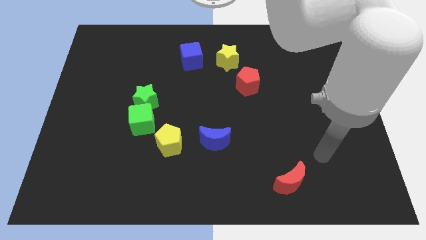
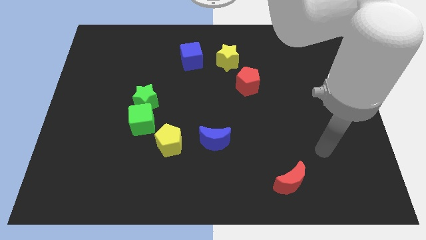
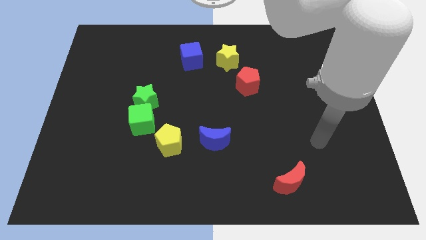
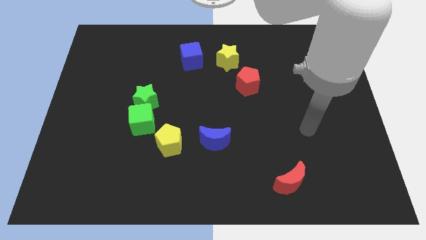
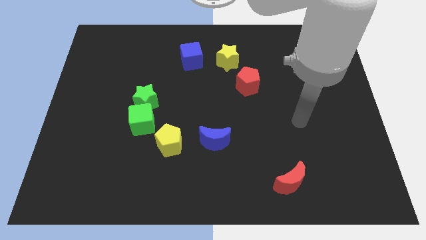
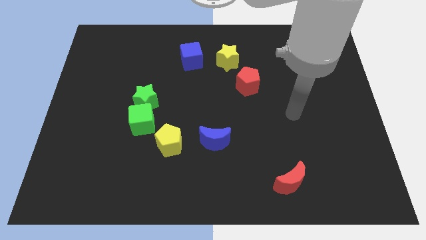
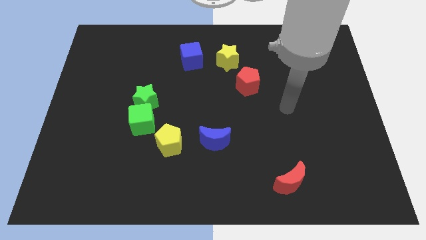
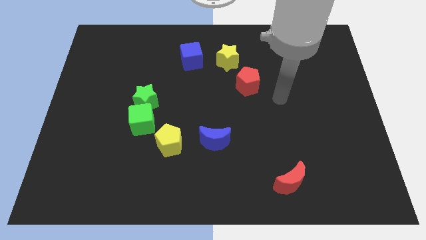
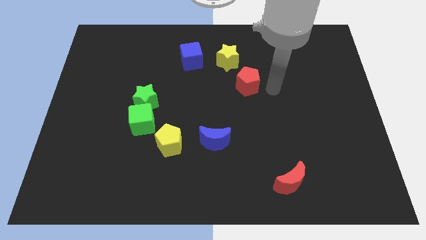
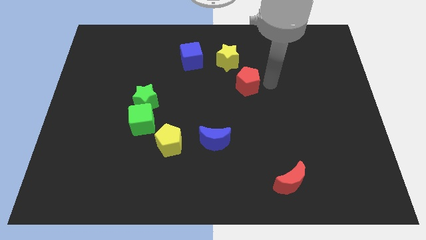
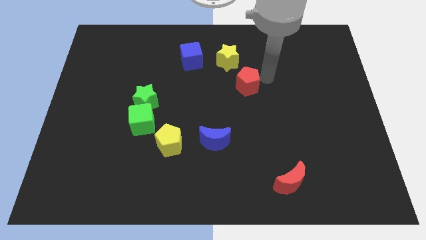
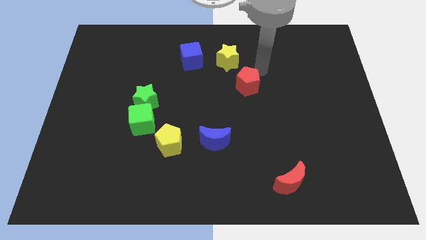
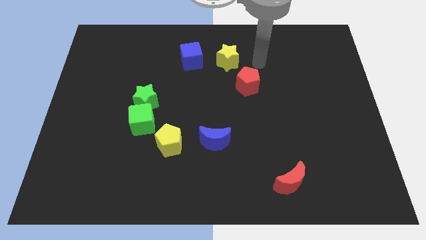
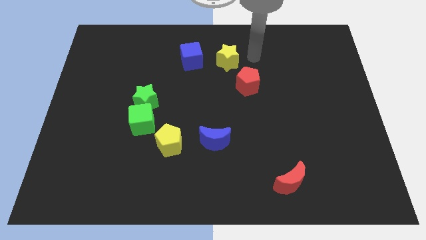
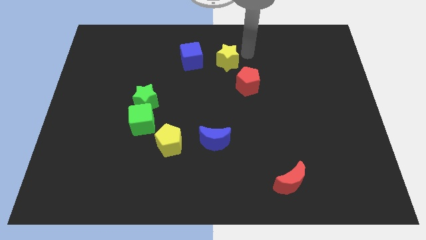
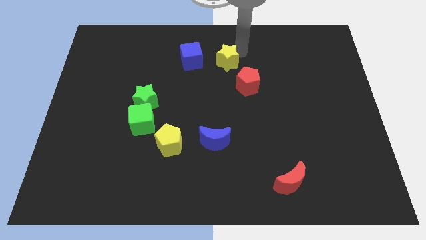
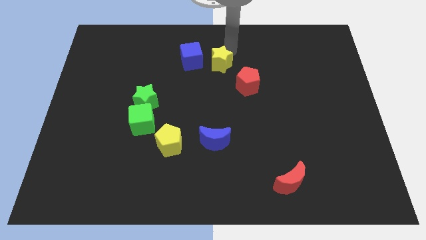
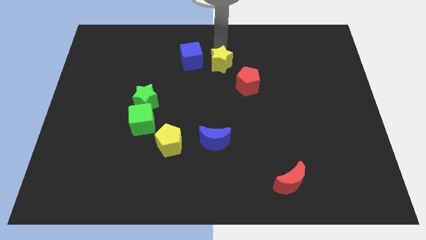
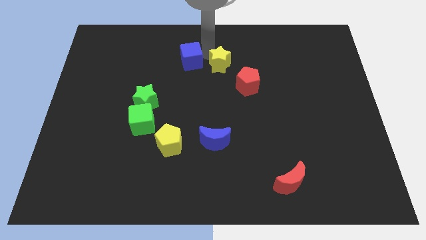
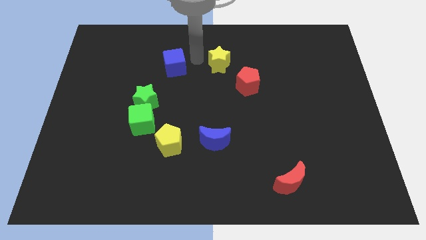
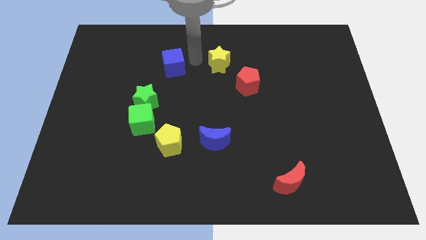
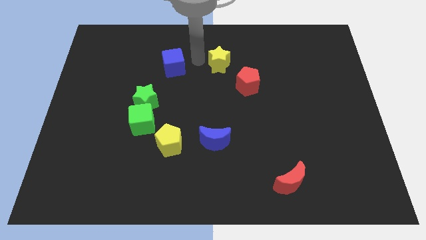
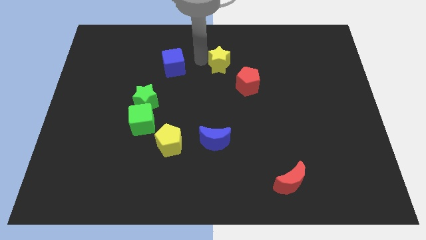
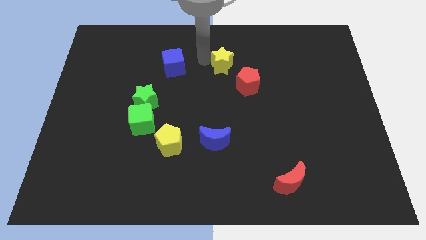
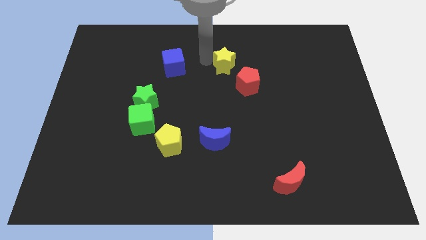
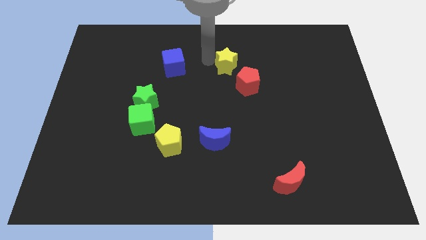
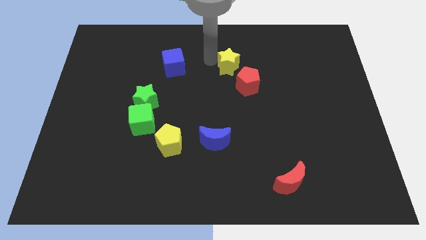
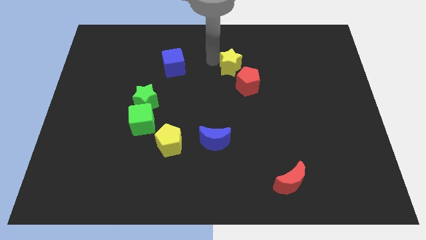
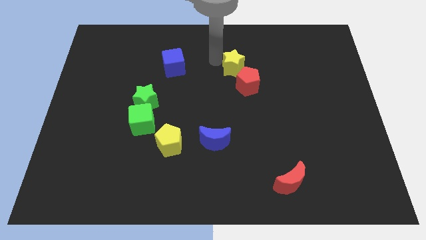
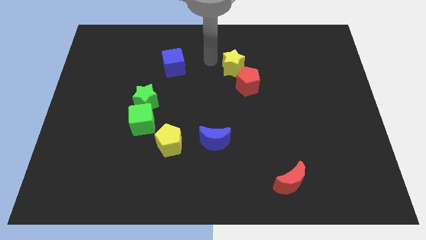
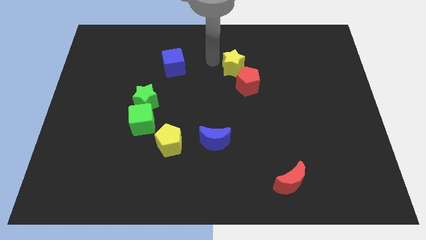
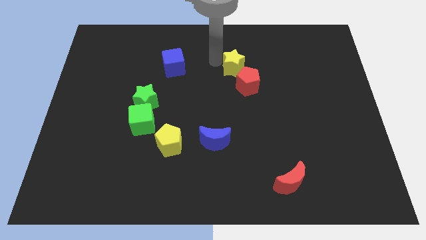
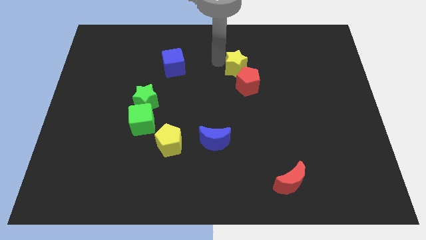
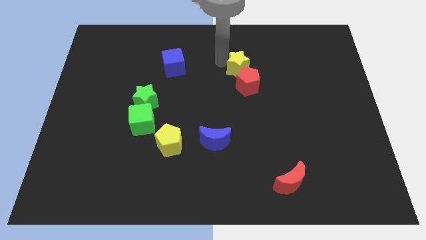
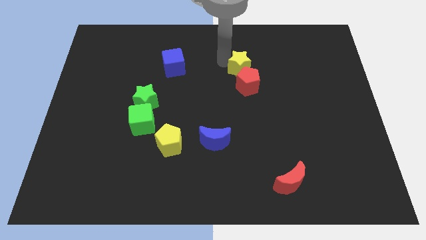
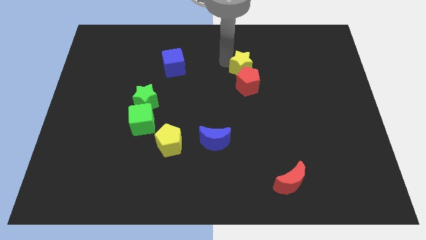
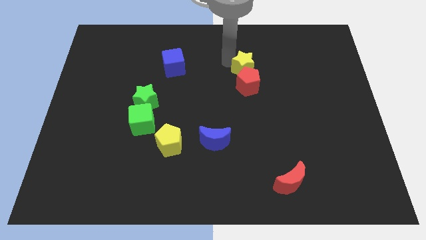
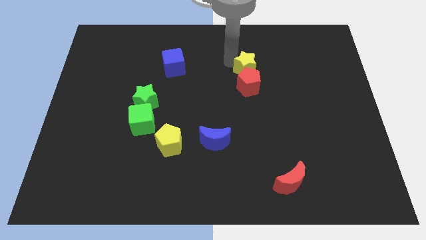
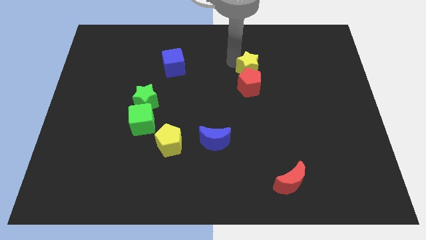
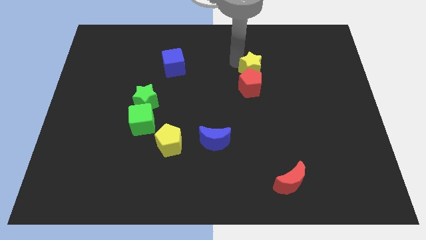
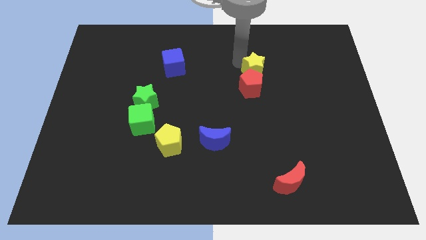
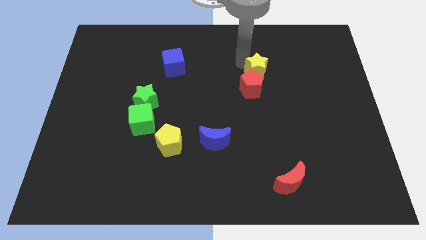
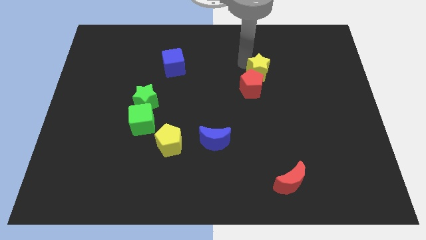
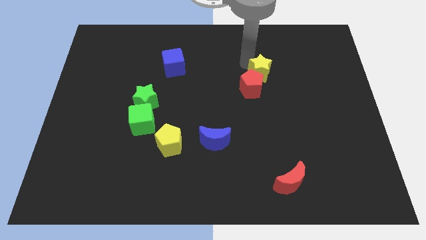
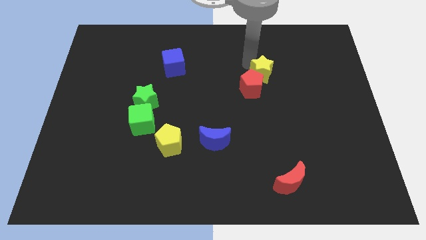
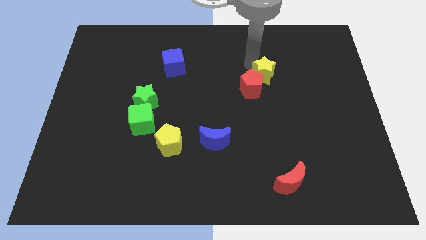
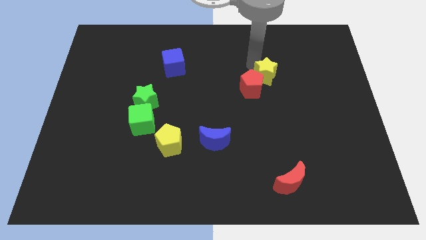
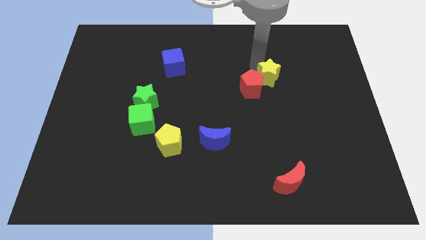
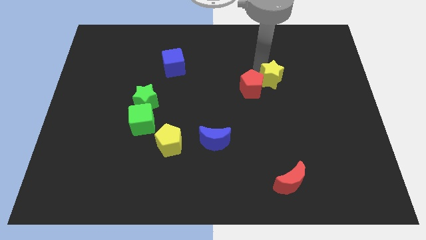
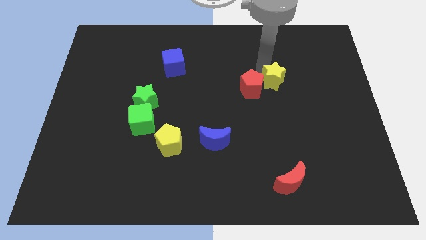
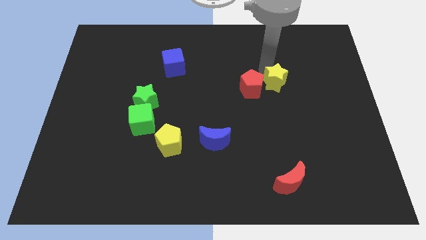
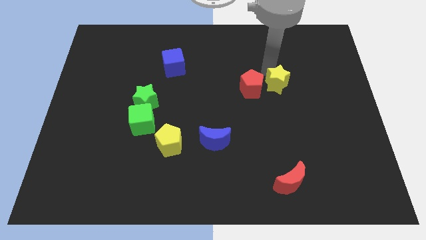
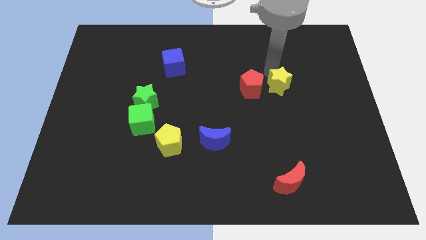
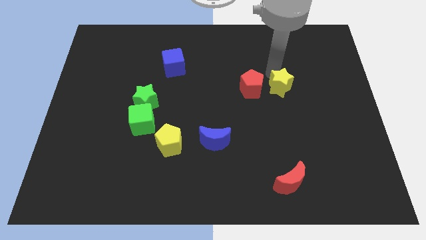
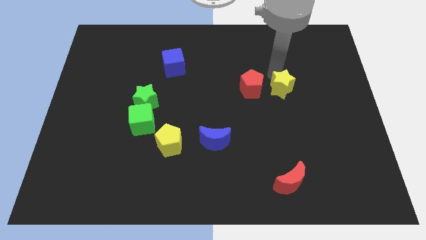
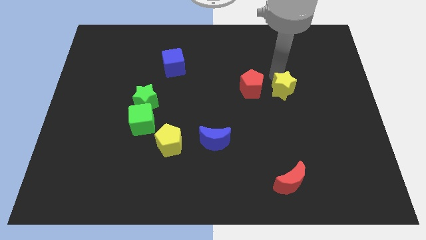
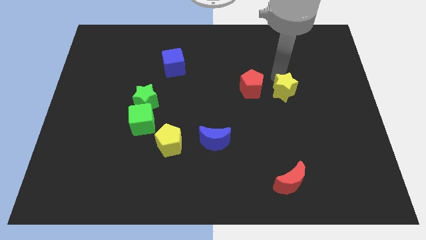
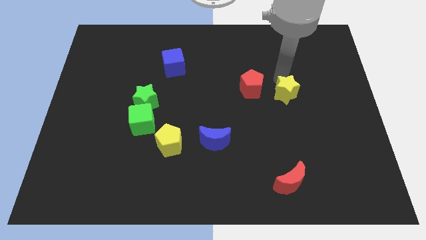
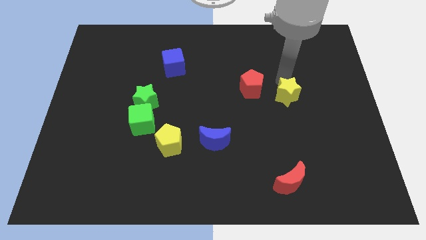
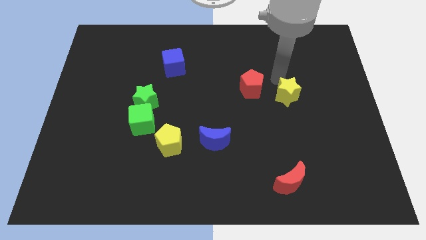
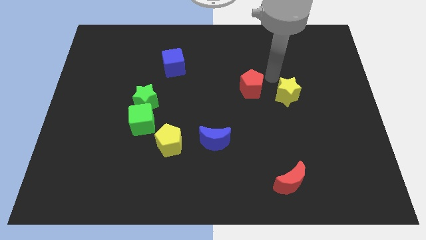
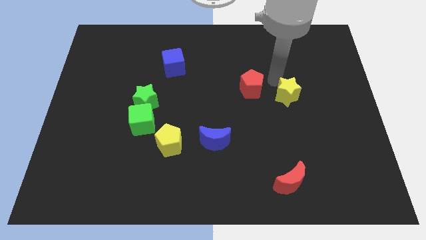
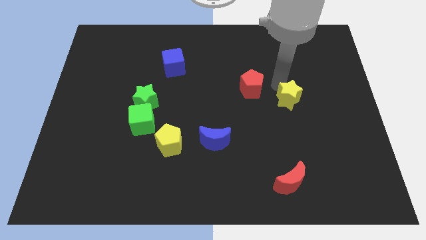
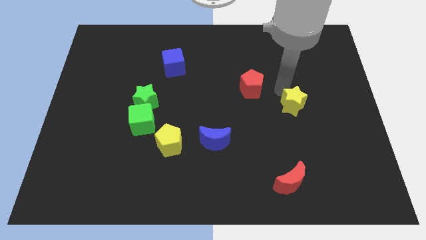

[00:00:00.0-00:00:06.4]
push the yellow star downwards and then to the right

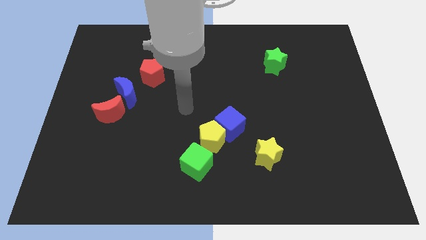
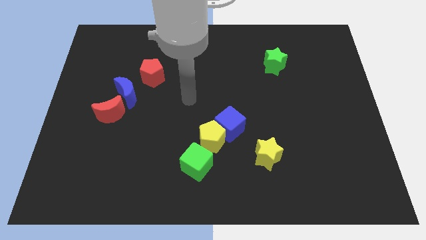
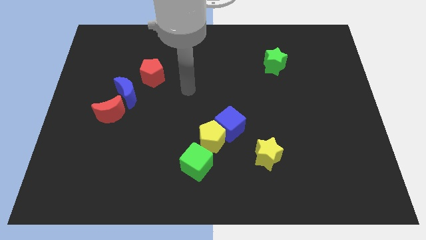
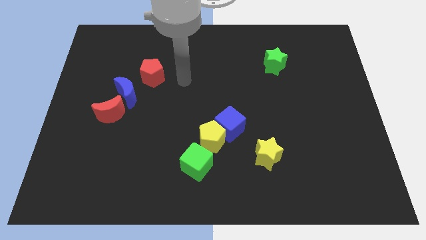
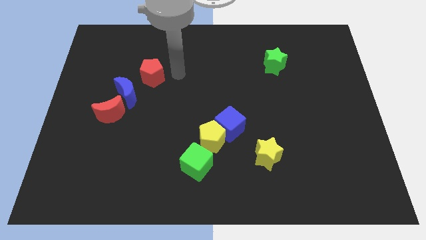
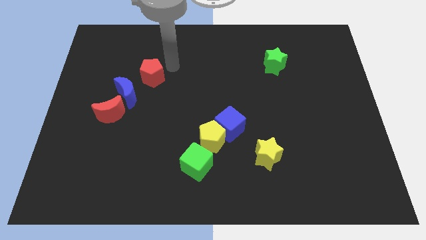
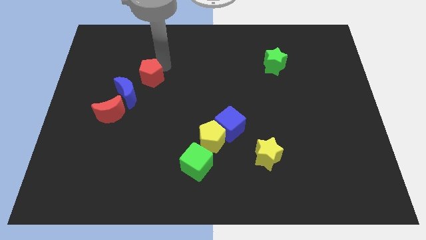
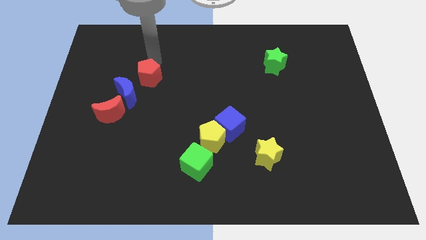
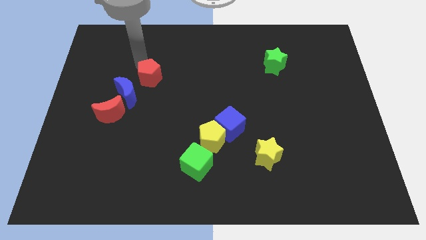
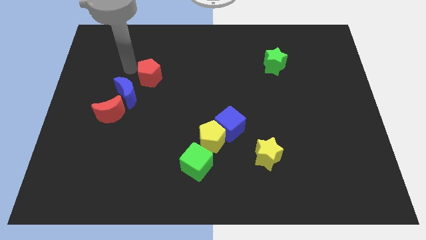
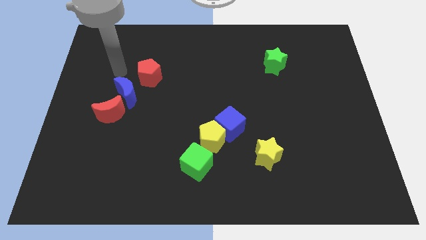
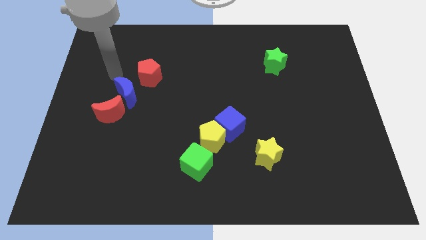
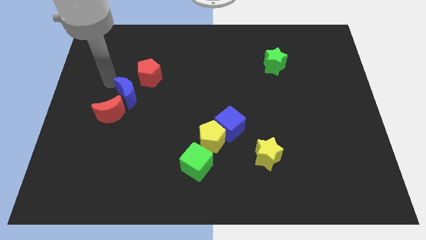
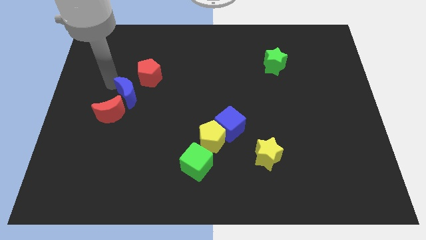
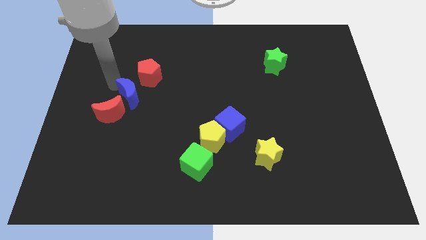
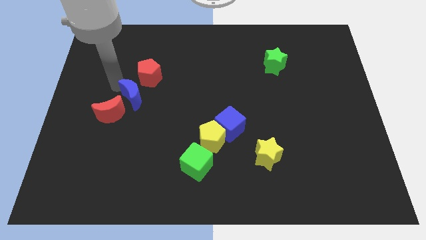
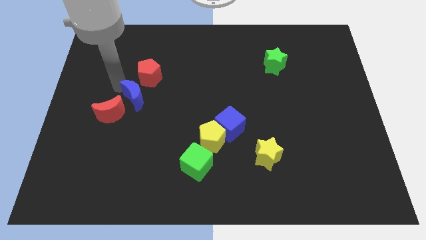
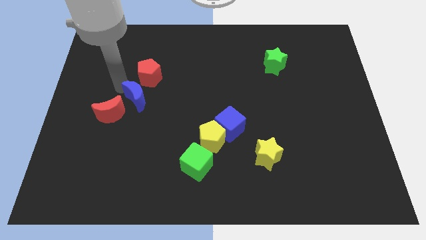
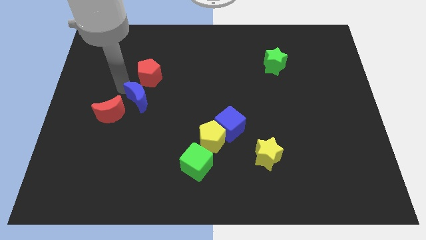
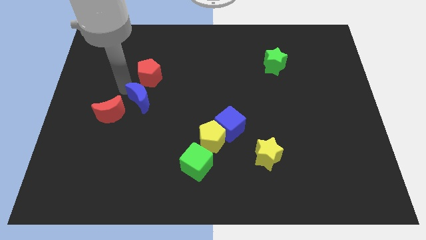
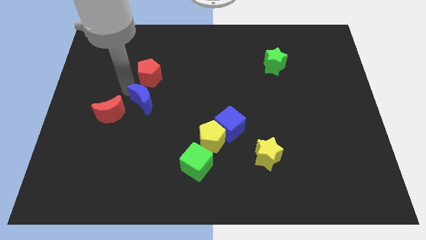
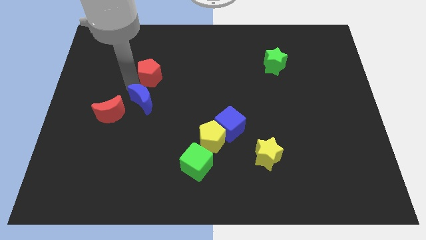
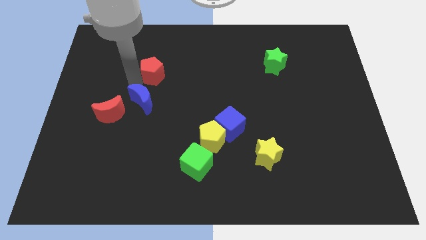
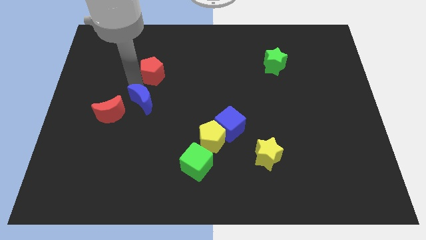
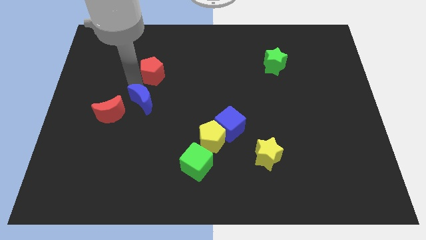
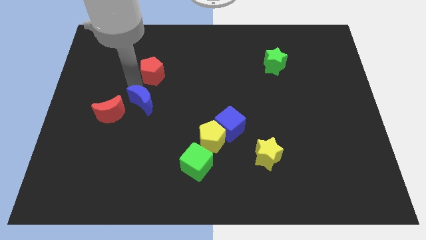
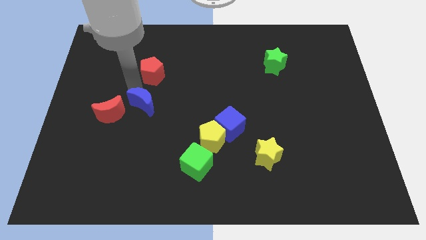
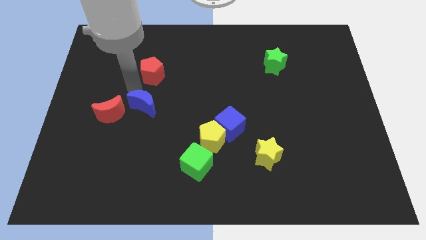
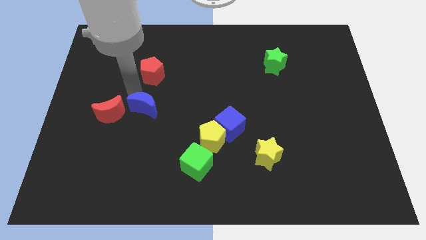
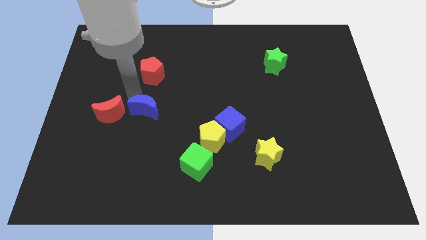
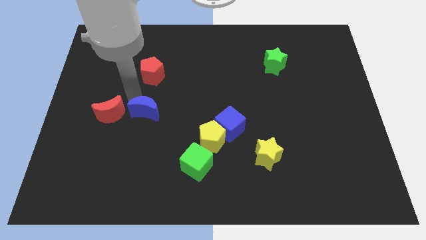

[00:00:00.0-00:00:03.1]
push the blue moon downwards and right a bit
